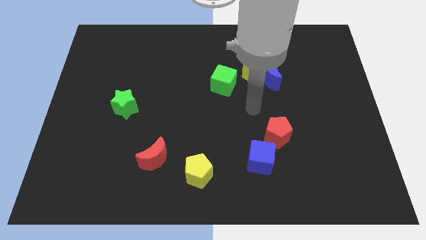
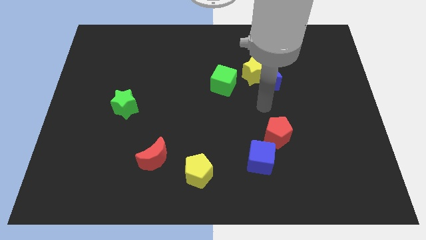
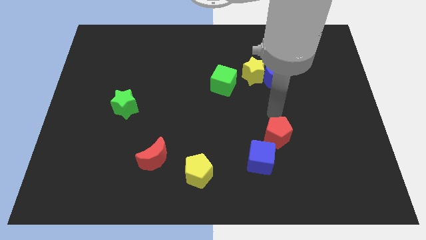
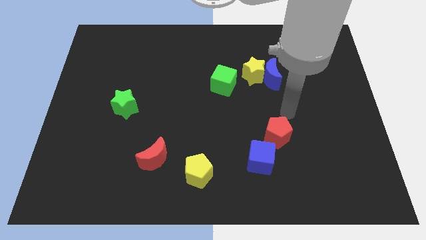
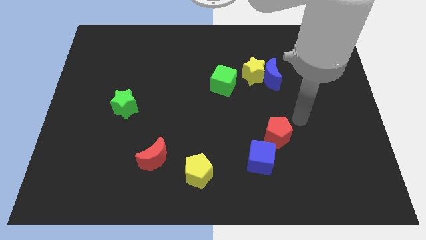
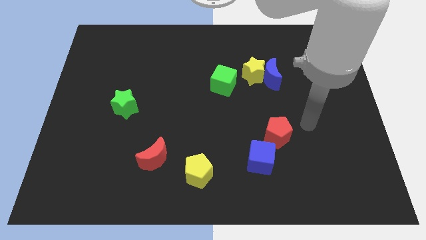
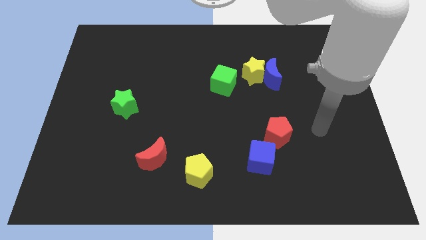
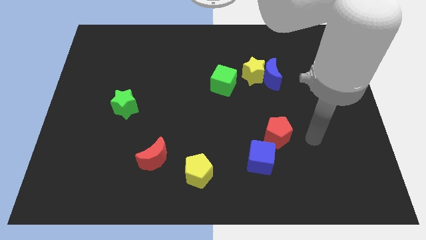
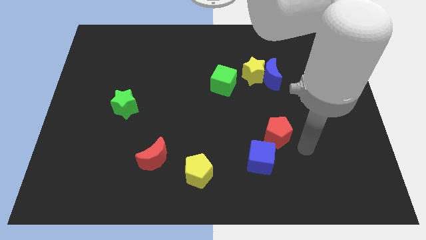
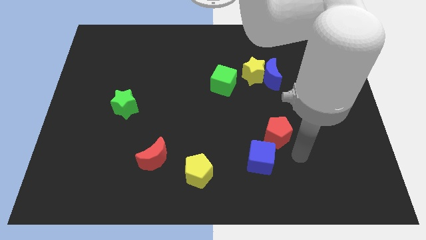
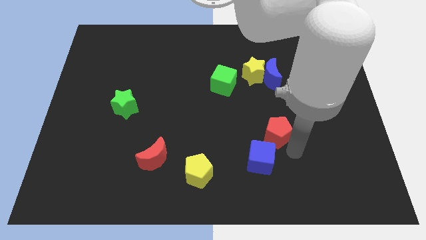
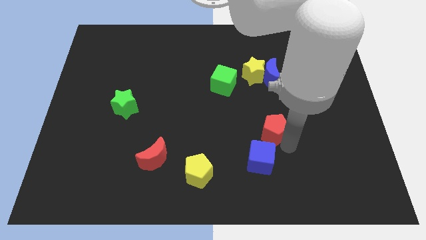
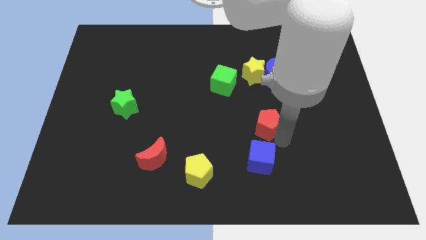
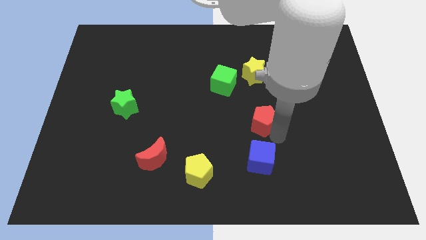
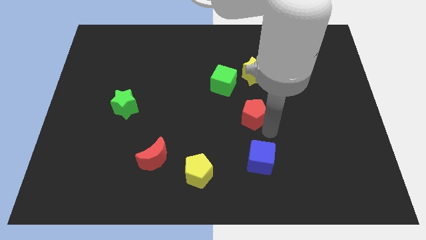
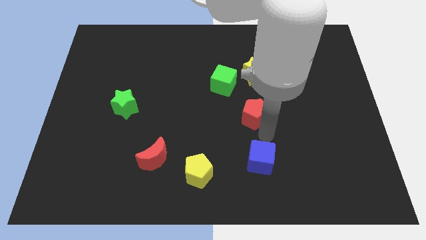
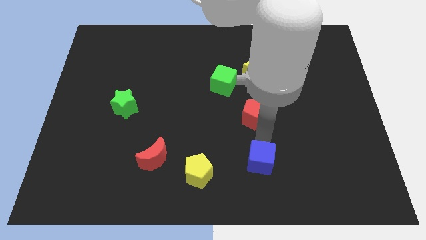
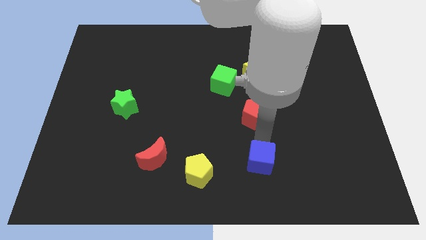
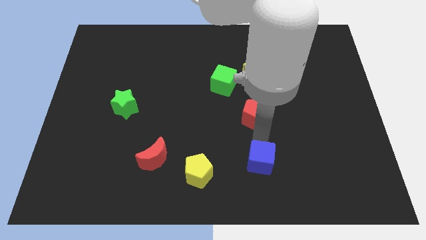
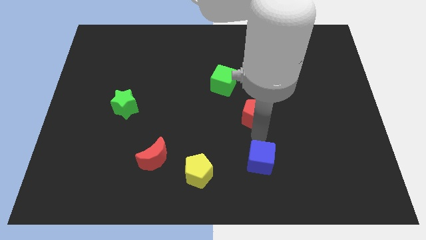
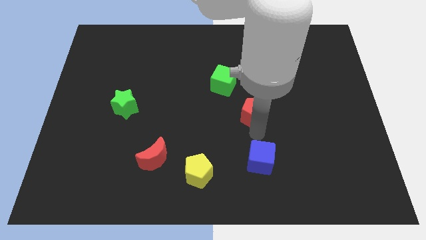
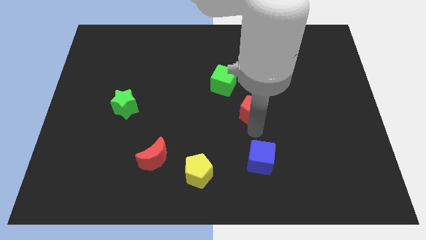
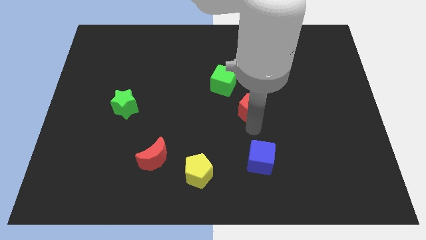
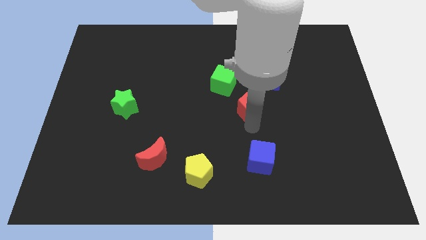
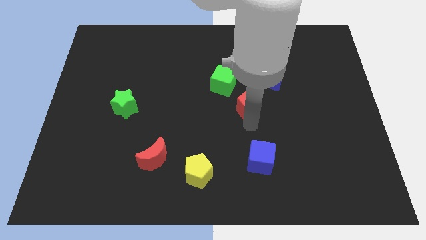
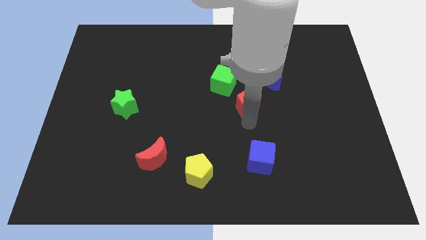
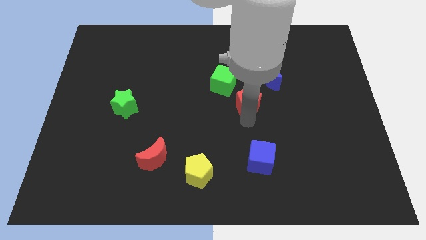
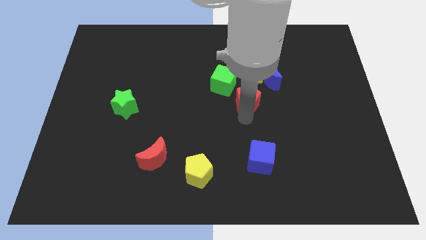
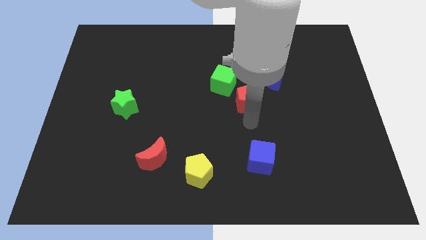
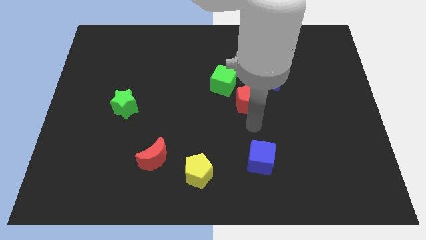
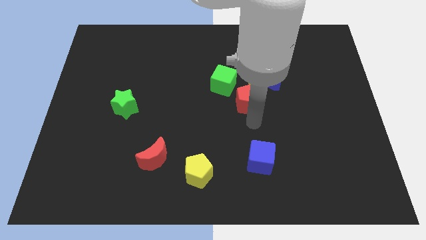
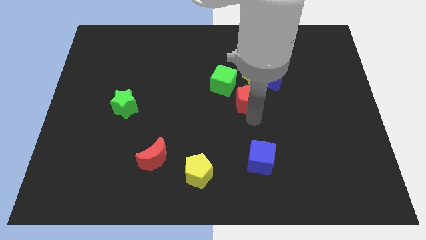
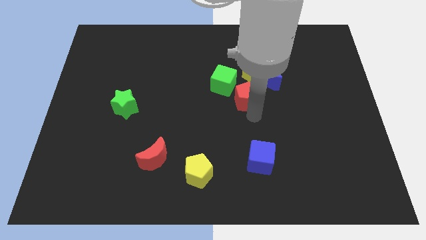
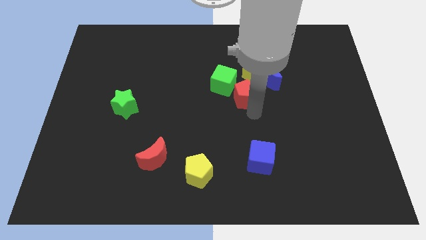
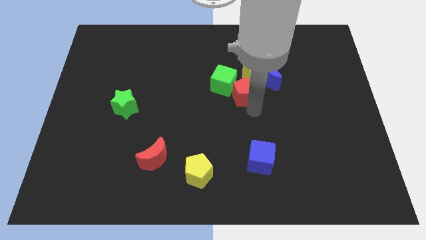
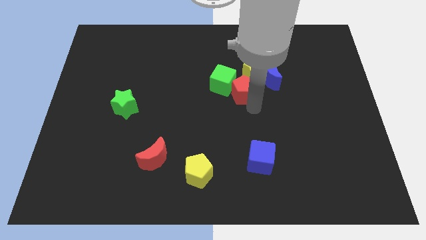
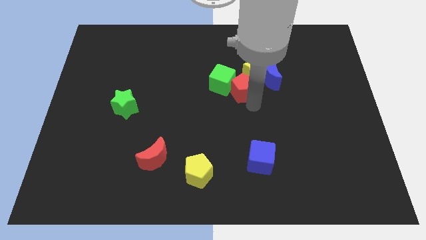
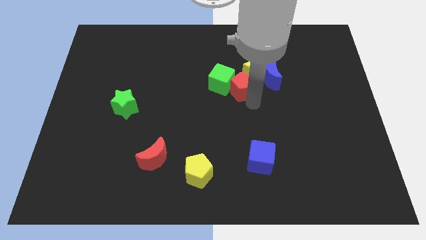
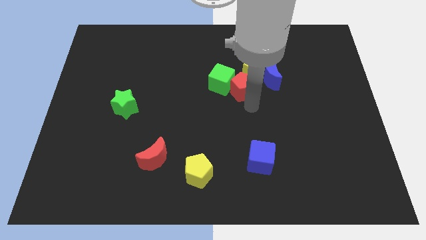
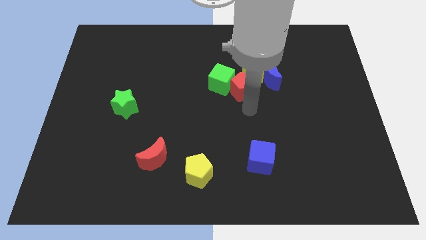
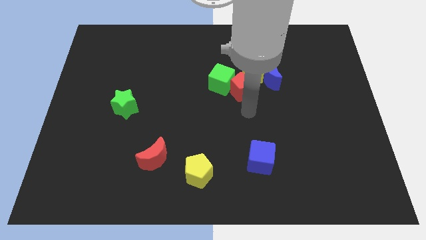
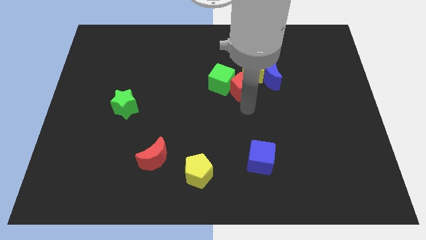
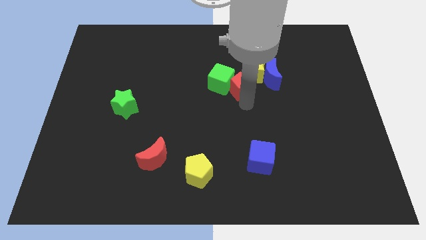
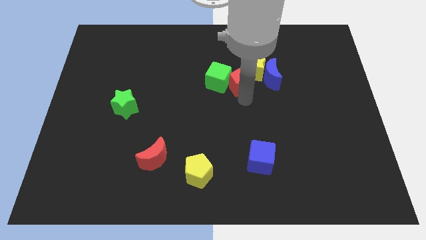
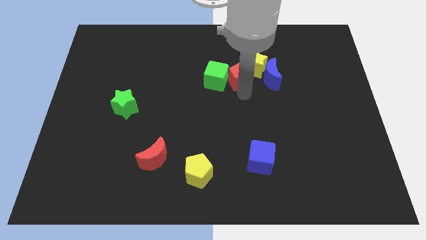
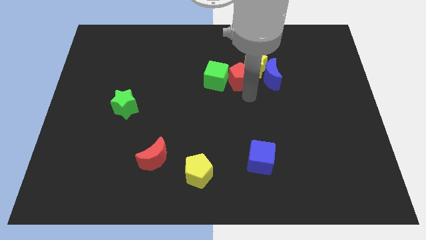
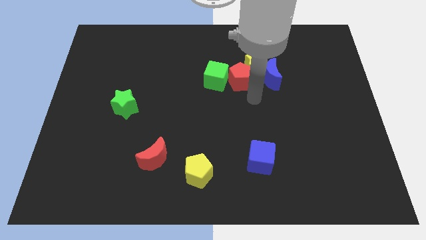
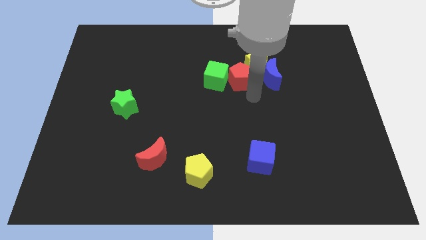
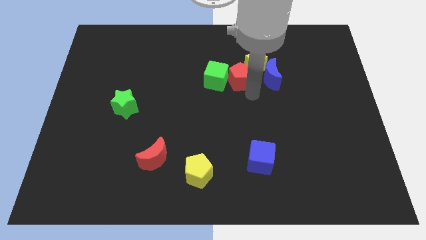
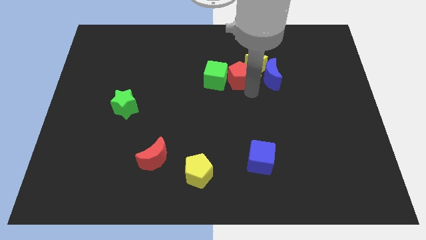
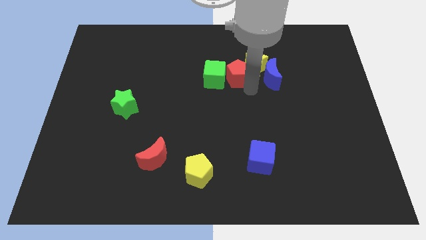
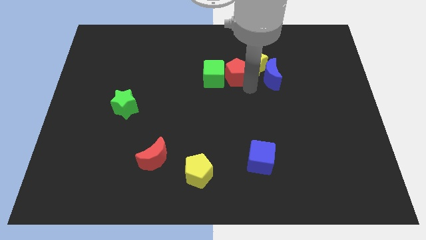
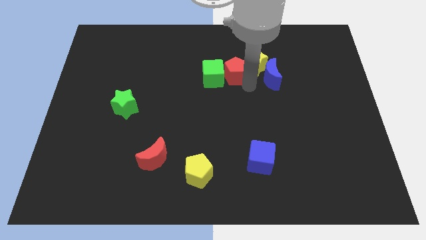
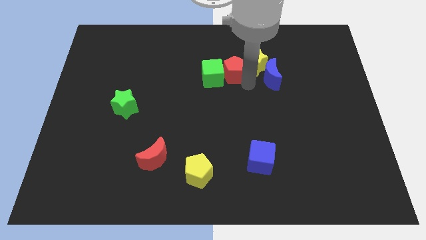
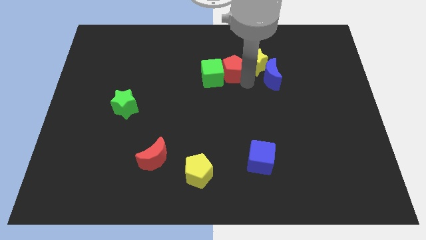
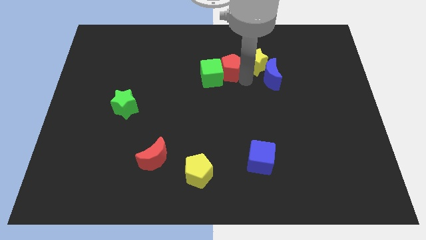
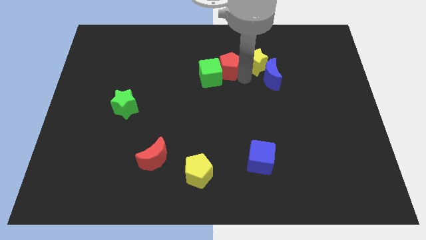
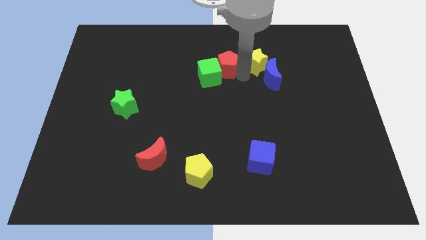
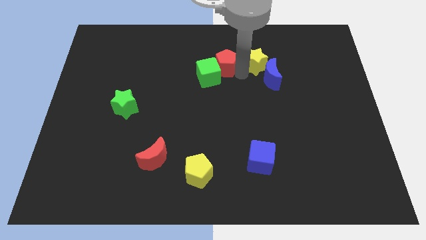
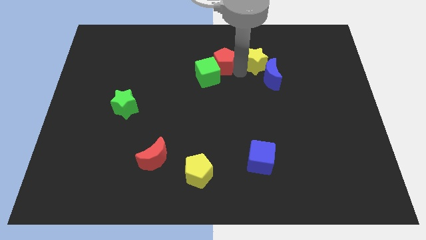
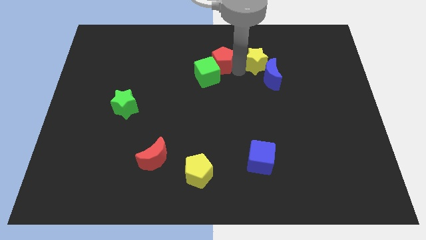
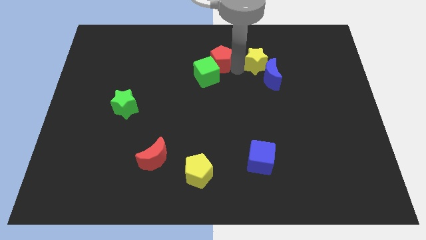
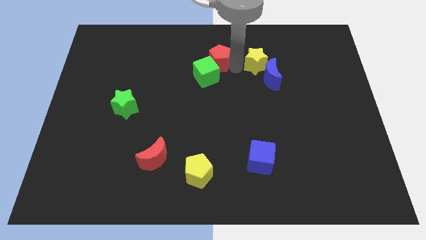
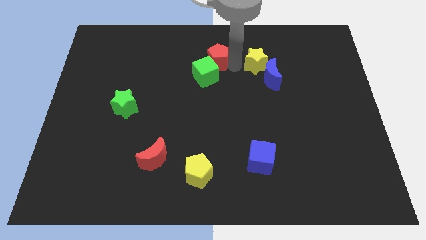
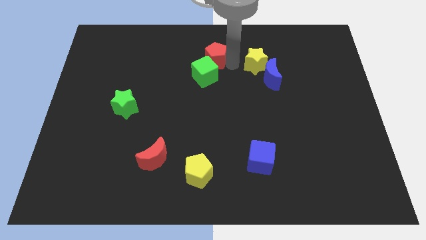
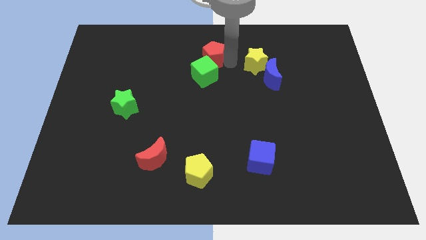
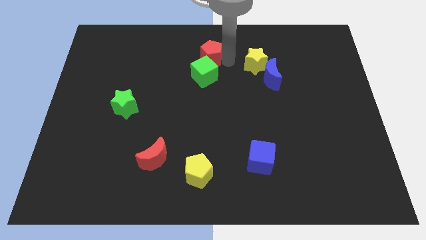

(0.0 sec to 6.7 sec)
slide the red pentagon to the towards your base

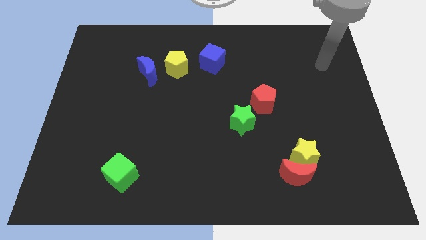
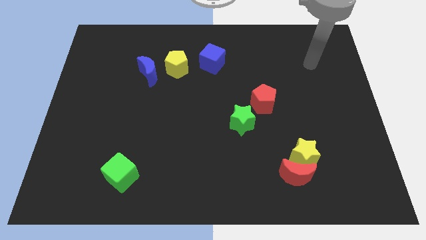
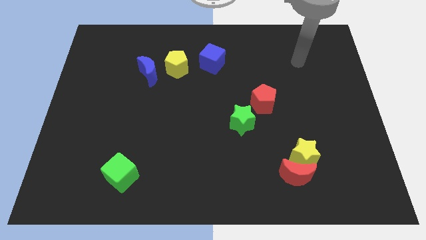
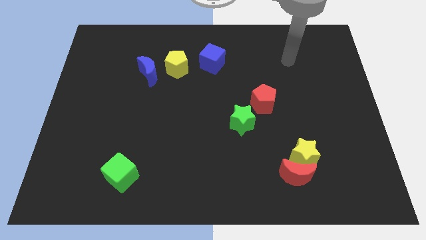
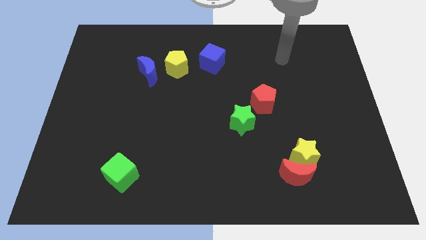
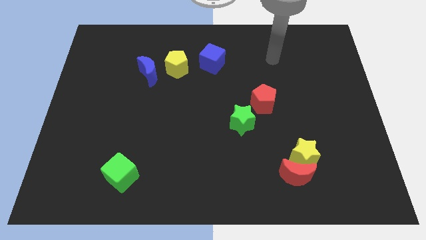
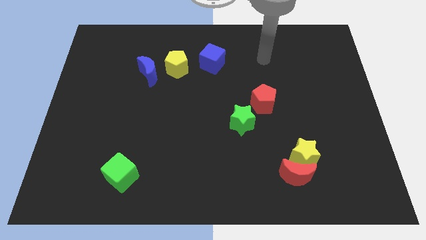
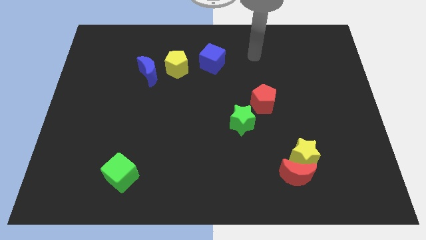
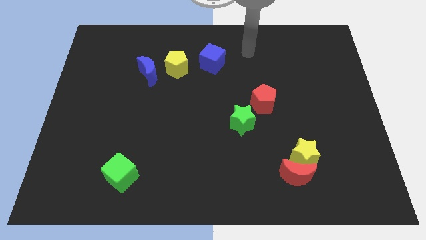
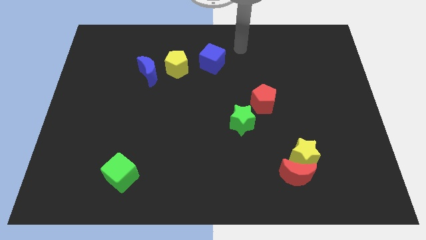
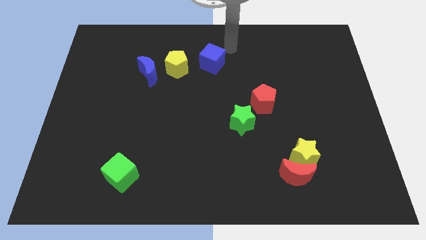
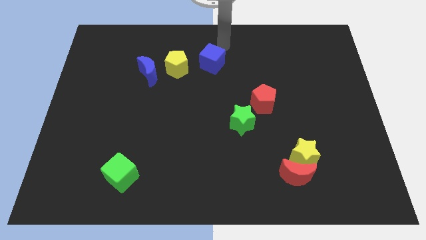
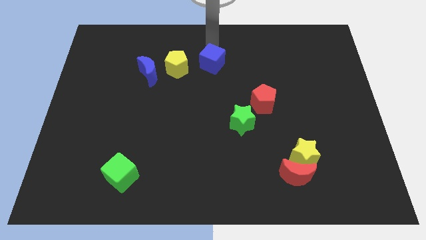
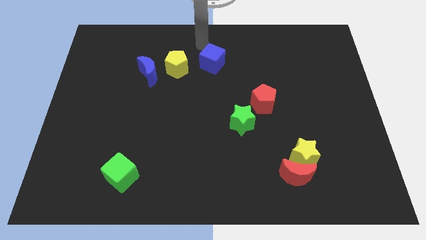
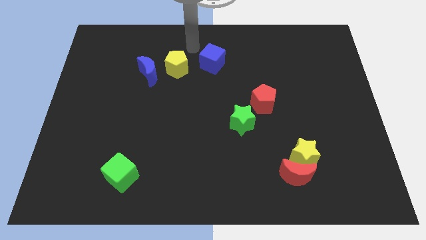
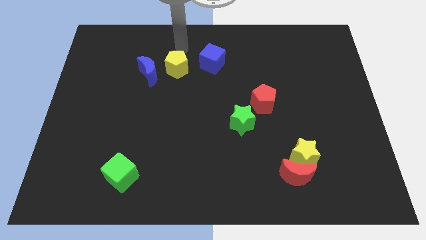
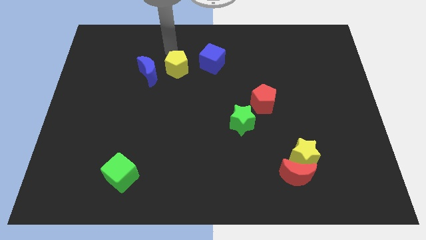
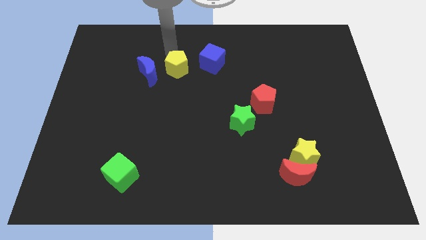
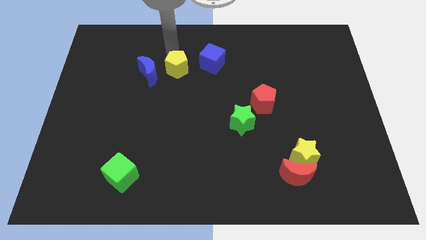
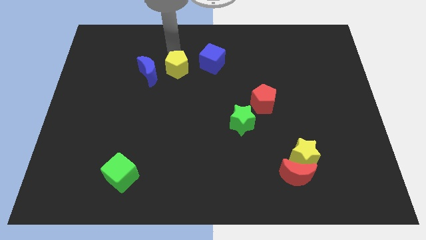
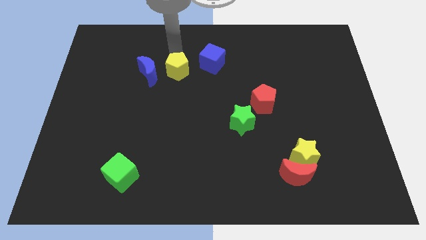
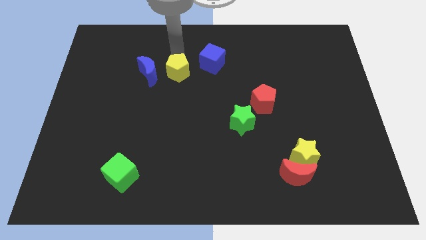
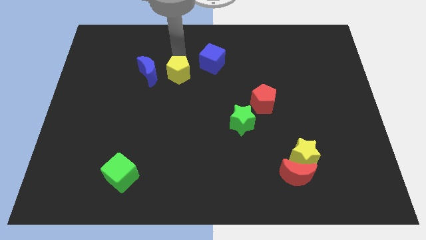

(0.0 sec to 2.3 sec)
put the yellow pentagon to the middle of the board
